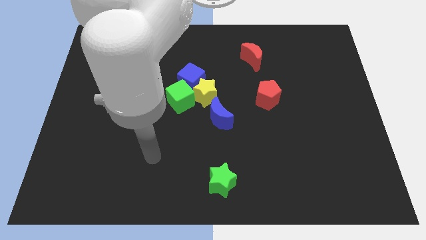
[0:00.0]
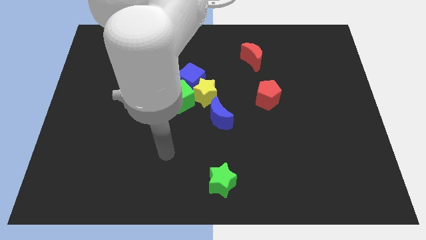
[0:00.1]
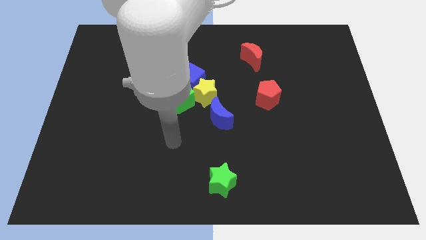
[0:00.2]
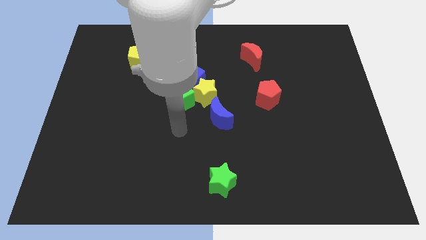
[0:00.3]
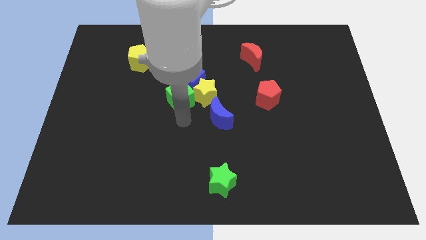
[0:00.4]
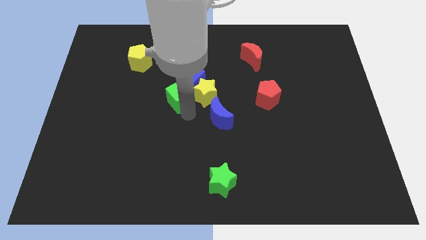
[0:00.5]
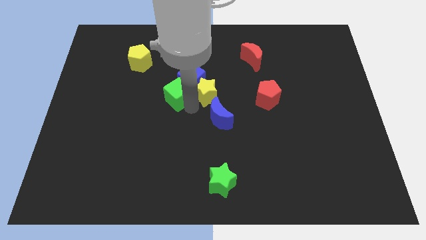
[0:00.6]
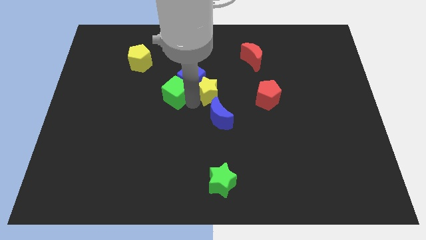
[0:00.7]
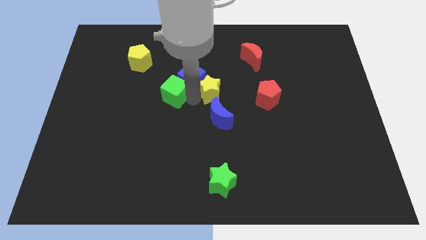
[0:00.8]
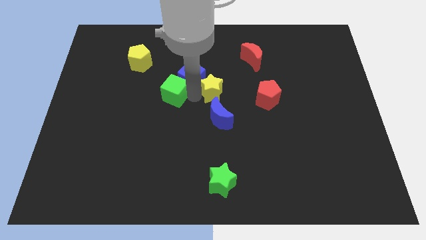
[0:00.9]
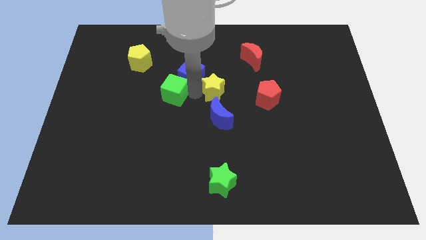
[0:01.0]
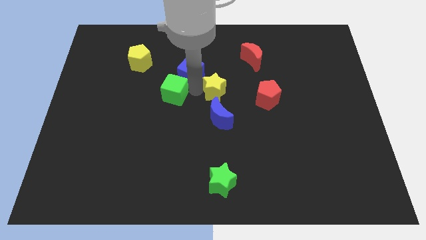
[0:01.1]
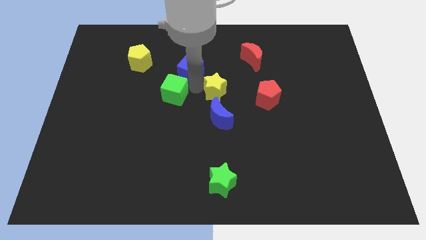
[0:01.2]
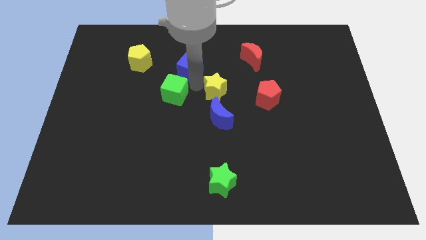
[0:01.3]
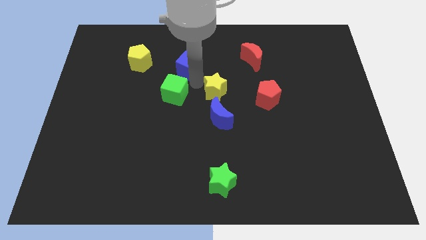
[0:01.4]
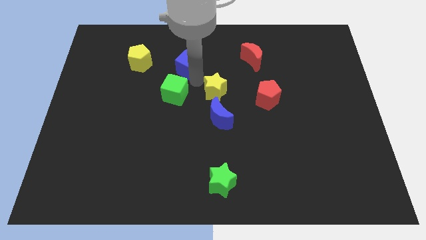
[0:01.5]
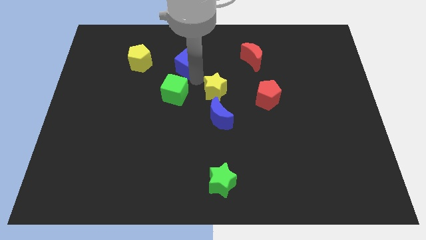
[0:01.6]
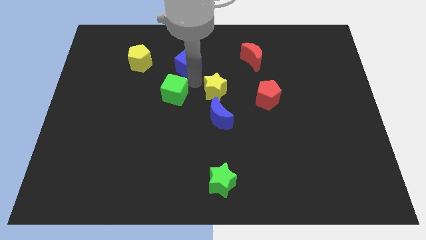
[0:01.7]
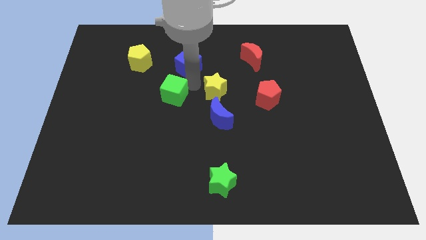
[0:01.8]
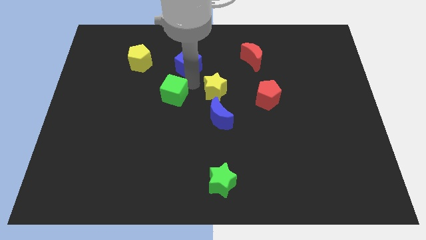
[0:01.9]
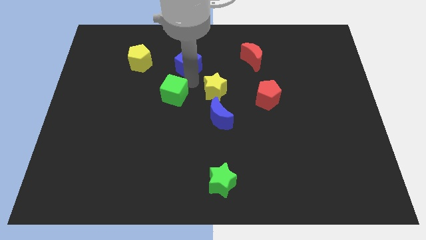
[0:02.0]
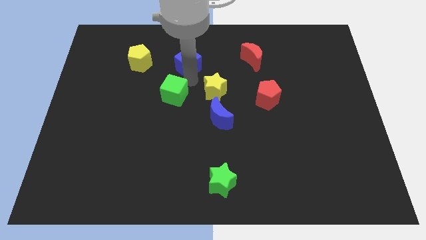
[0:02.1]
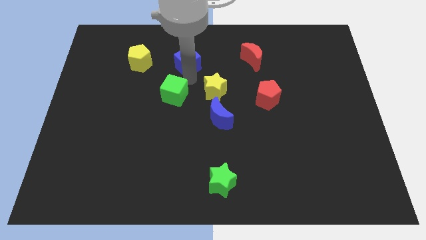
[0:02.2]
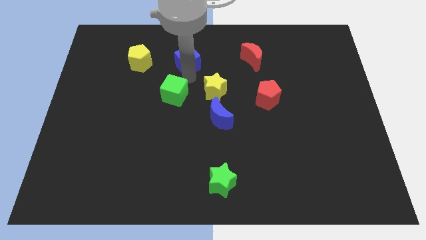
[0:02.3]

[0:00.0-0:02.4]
separate the blue cube from the yellow star and green cube

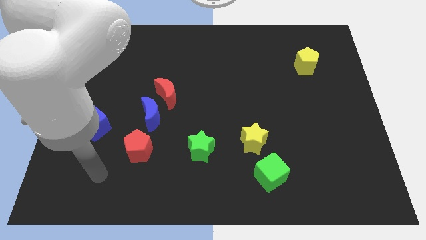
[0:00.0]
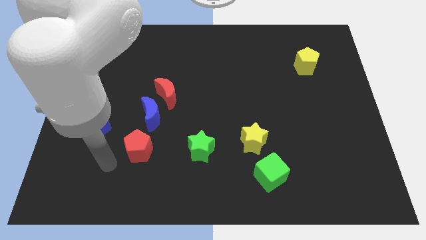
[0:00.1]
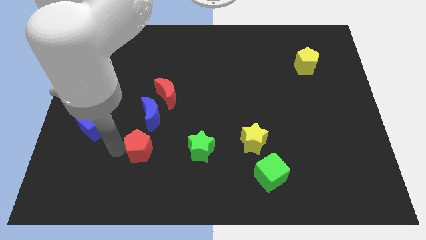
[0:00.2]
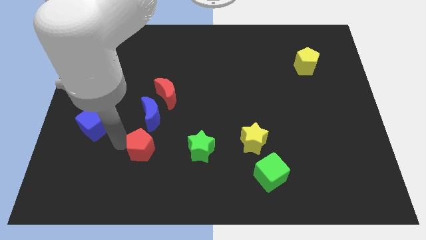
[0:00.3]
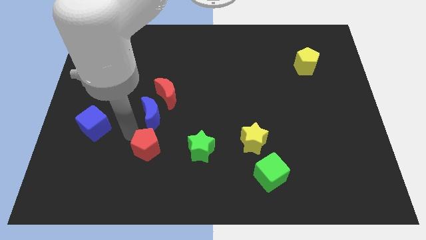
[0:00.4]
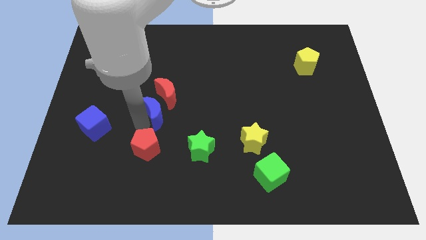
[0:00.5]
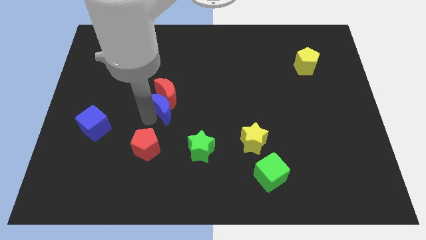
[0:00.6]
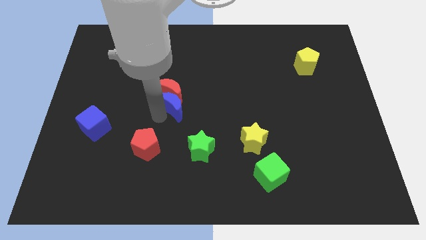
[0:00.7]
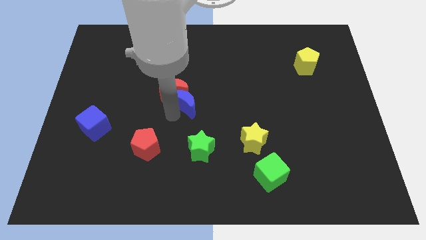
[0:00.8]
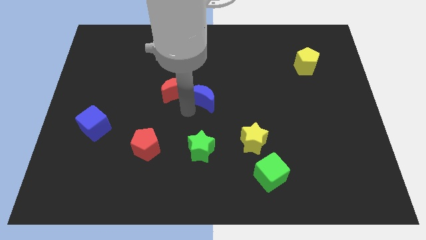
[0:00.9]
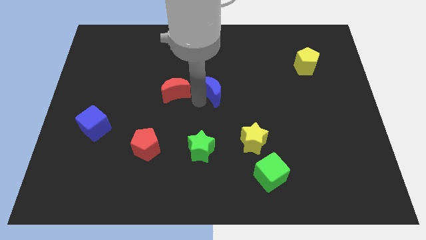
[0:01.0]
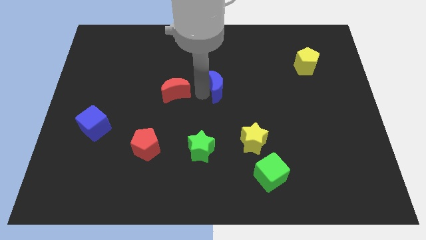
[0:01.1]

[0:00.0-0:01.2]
move the red moon away from the blue moon

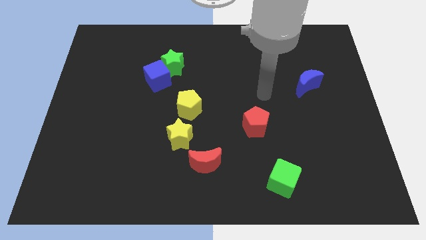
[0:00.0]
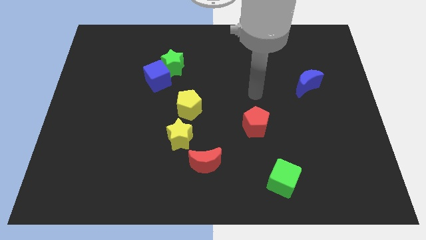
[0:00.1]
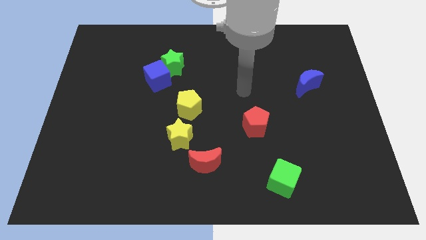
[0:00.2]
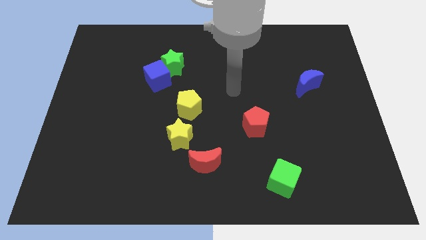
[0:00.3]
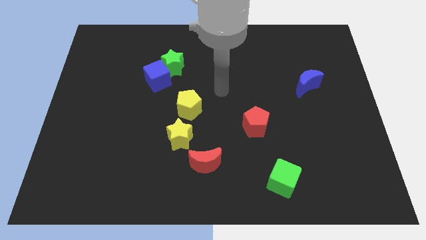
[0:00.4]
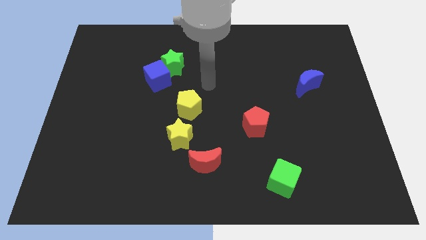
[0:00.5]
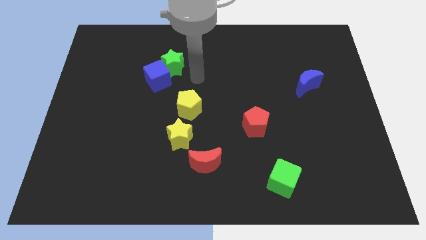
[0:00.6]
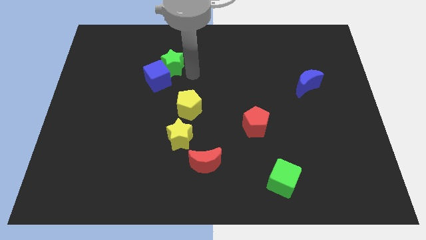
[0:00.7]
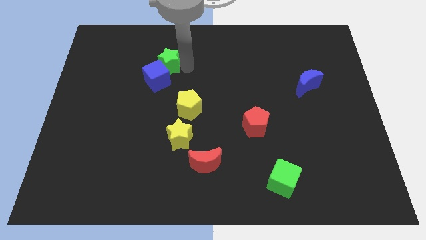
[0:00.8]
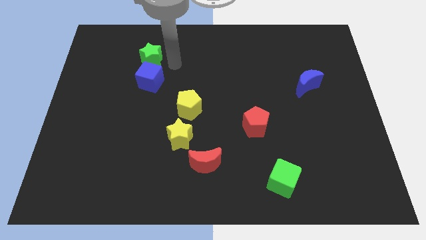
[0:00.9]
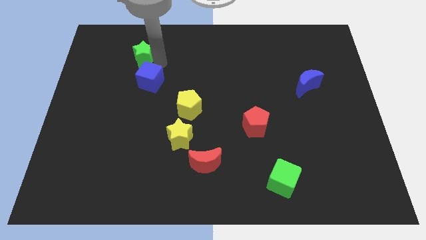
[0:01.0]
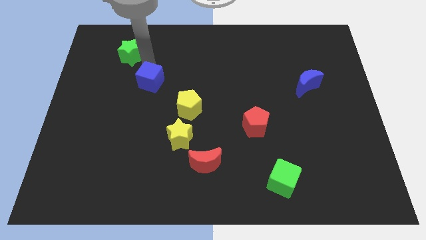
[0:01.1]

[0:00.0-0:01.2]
separate the blue cube from the green star

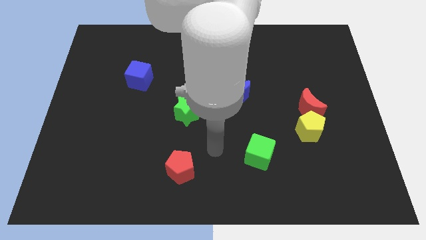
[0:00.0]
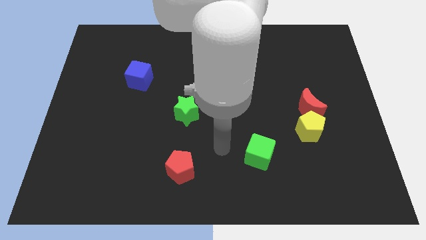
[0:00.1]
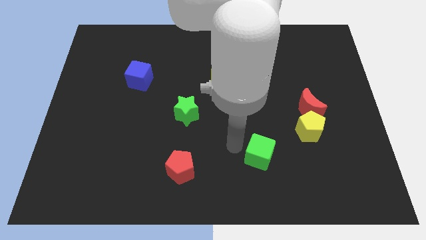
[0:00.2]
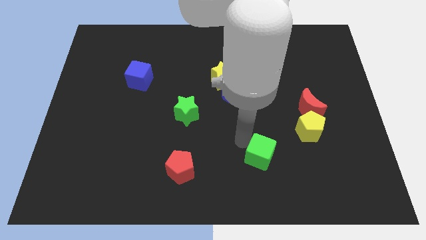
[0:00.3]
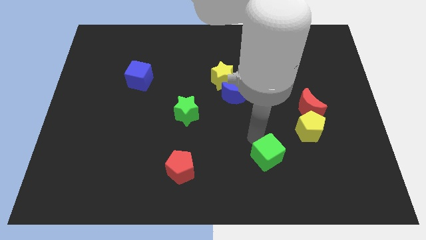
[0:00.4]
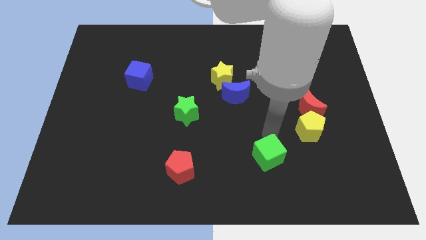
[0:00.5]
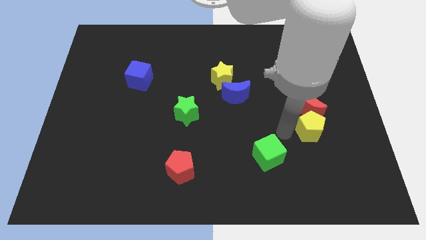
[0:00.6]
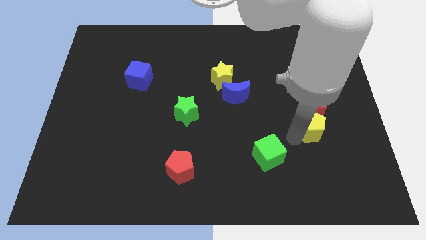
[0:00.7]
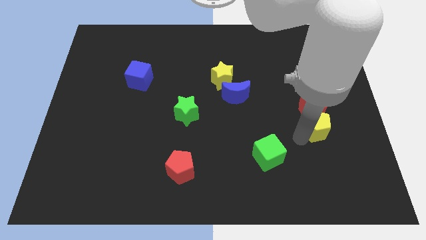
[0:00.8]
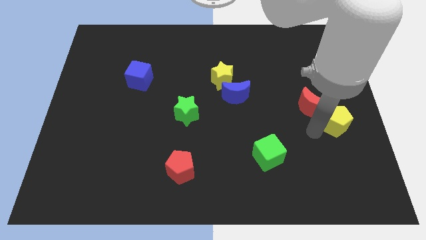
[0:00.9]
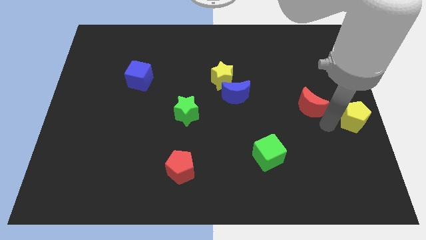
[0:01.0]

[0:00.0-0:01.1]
separate the red moon from the yellow pentagon

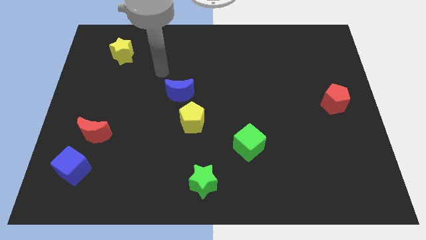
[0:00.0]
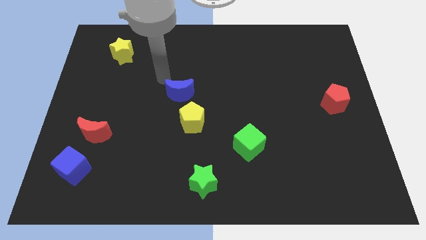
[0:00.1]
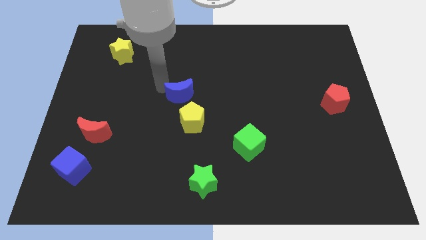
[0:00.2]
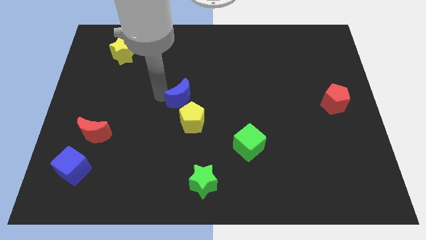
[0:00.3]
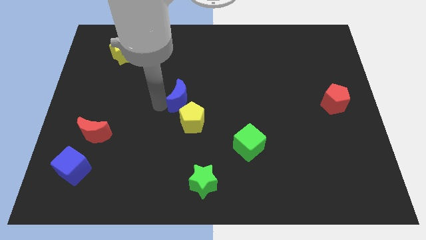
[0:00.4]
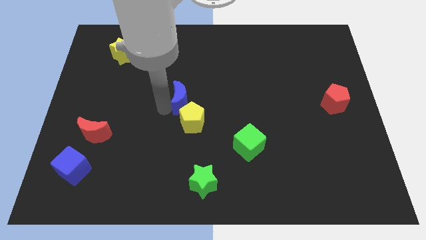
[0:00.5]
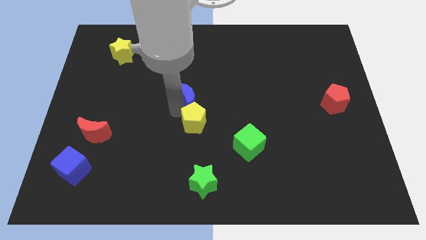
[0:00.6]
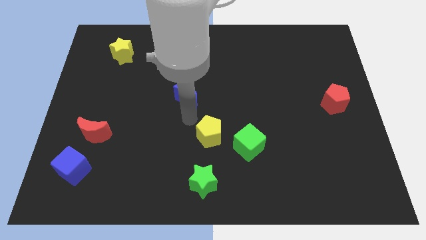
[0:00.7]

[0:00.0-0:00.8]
move the blue moon away from the yellow pentagon

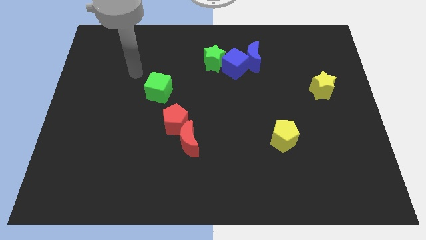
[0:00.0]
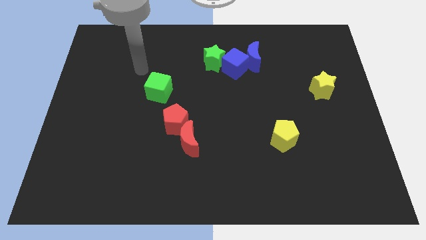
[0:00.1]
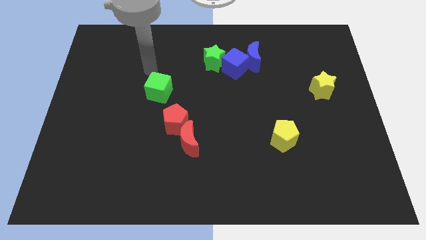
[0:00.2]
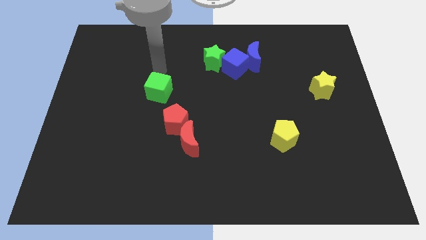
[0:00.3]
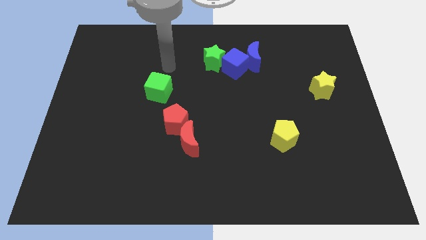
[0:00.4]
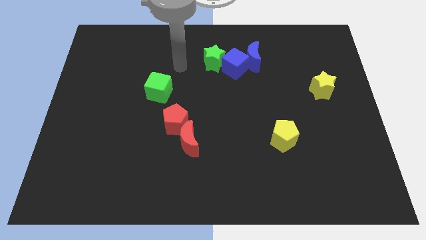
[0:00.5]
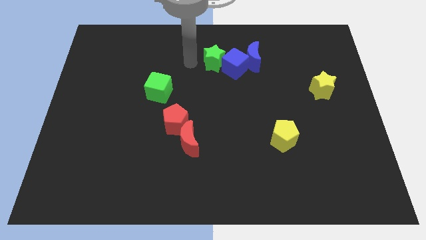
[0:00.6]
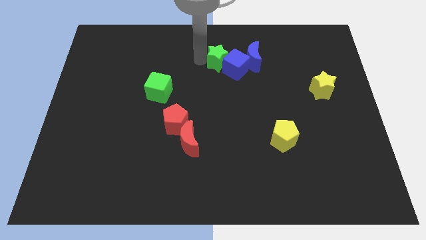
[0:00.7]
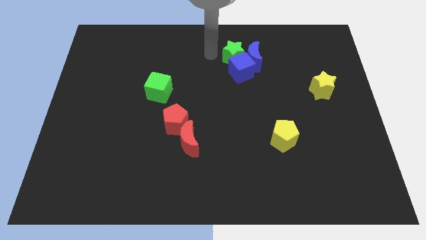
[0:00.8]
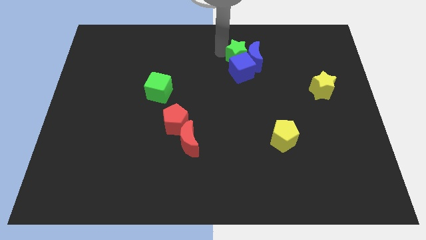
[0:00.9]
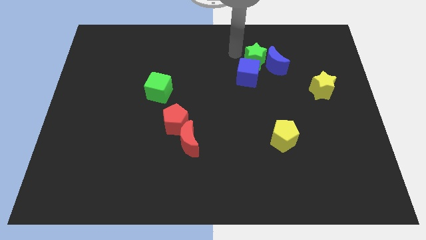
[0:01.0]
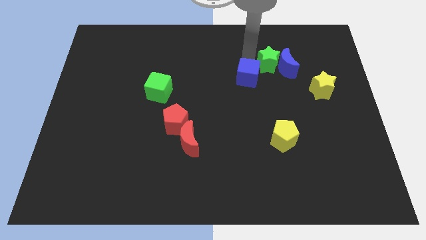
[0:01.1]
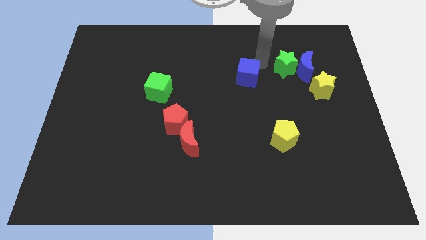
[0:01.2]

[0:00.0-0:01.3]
separate the blue cube from the blue moon and green star

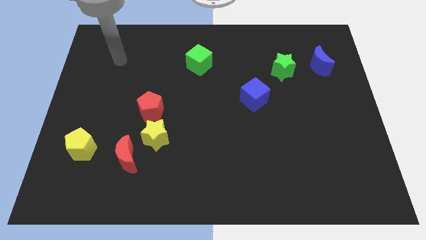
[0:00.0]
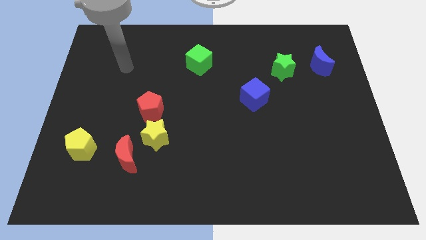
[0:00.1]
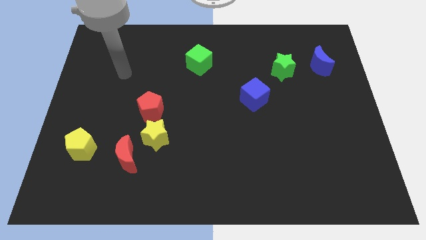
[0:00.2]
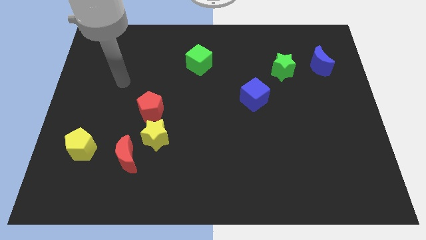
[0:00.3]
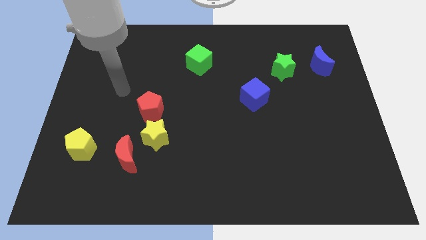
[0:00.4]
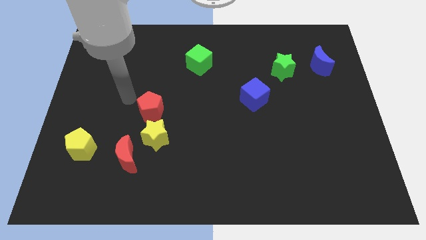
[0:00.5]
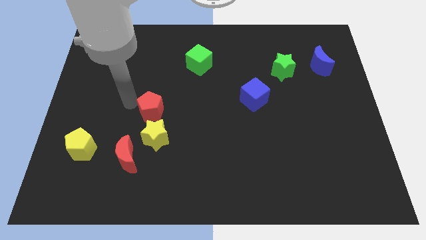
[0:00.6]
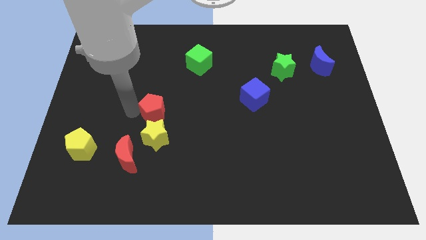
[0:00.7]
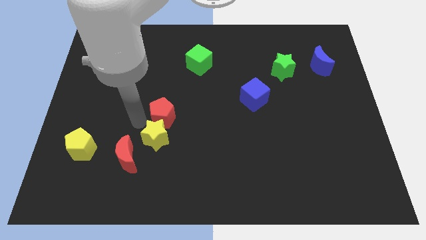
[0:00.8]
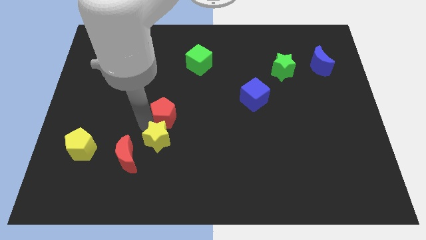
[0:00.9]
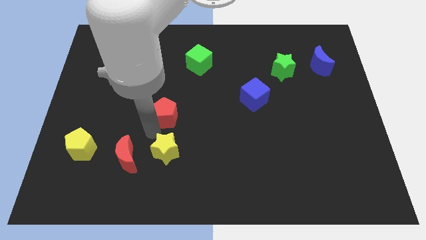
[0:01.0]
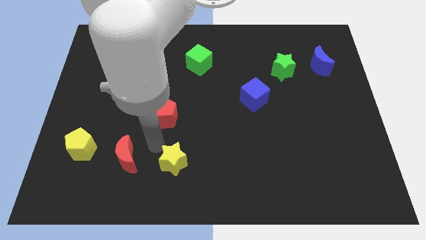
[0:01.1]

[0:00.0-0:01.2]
pull the red moon apart from the yellow star

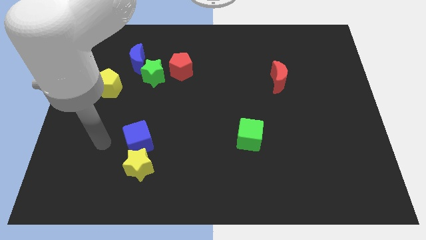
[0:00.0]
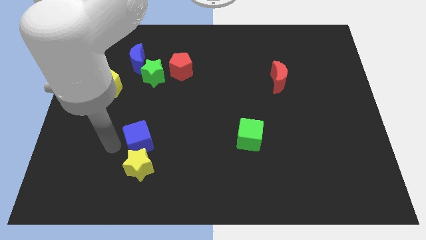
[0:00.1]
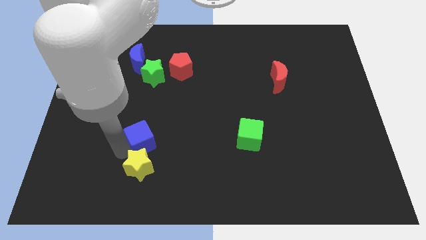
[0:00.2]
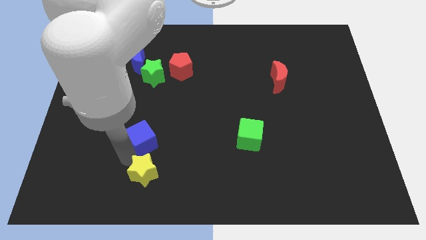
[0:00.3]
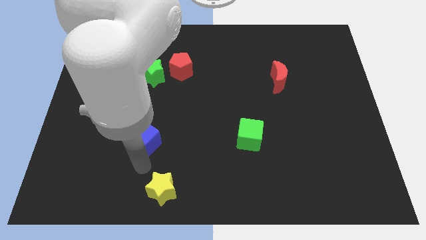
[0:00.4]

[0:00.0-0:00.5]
move the blue cube away from the yellow star
